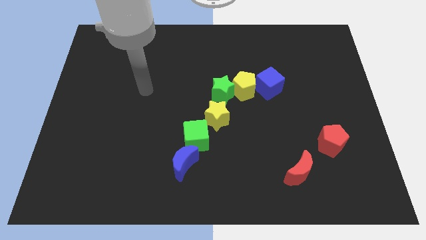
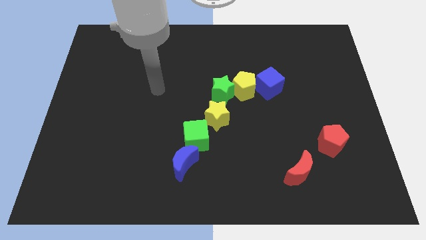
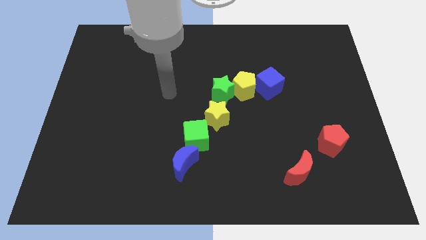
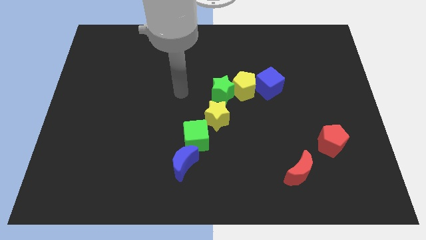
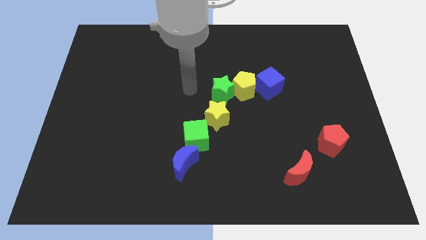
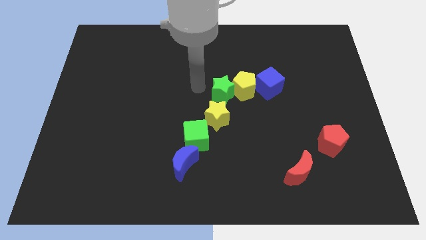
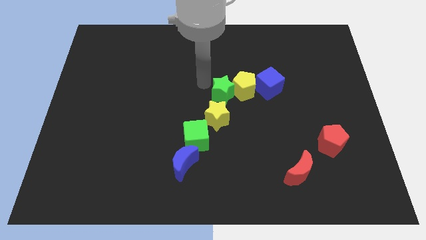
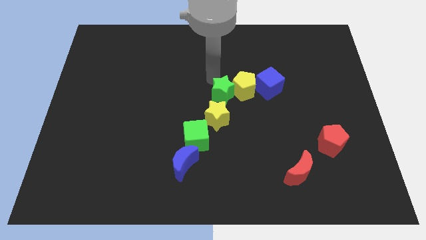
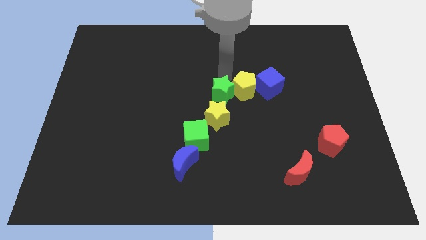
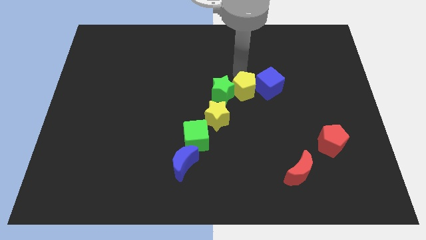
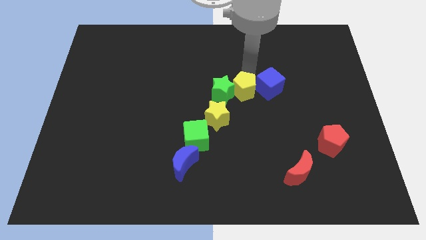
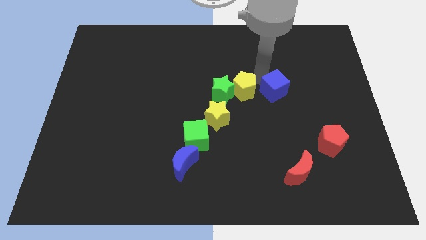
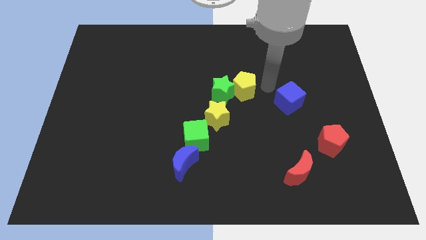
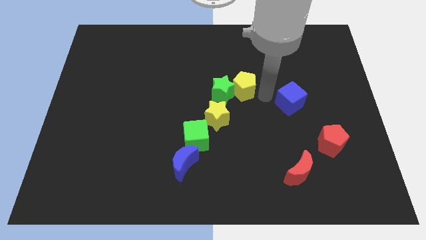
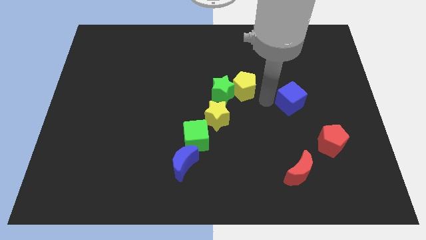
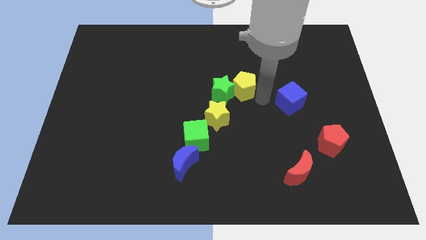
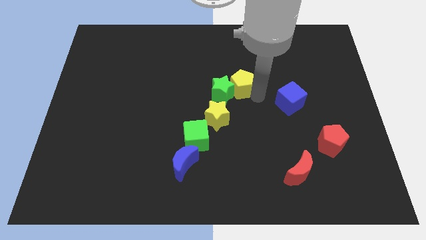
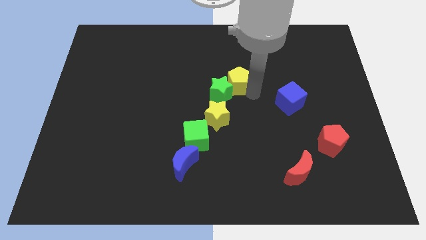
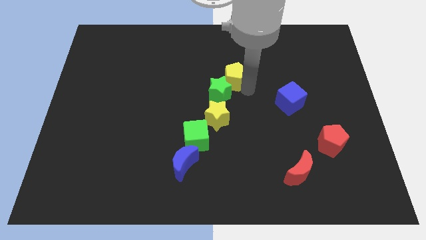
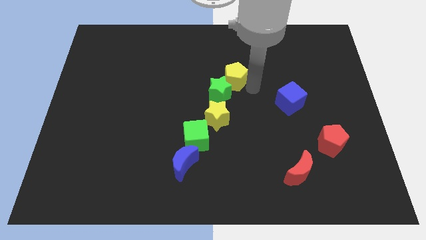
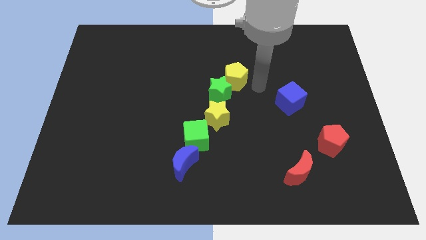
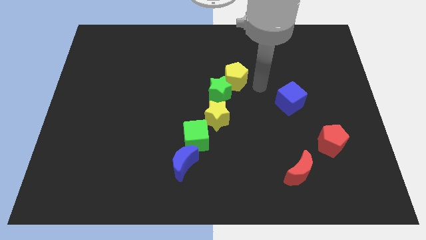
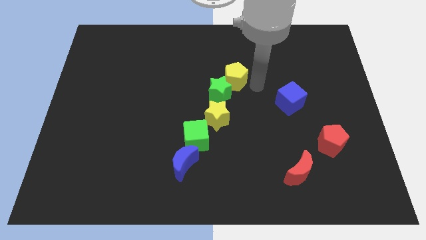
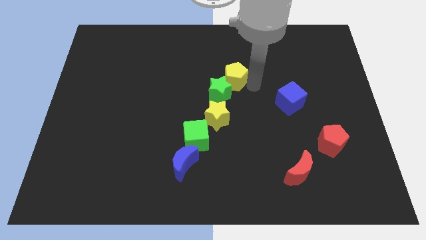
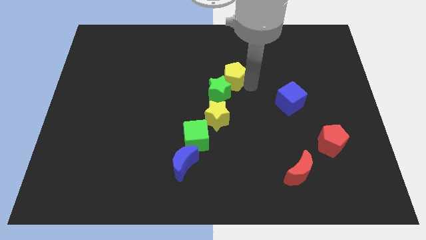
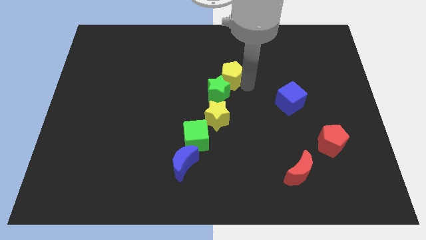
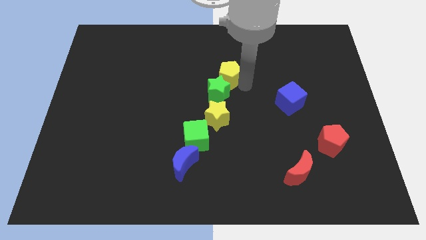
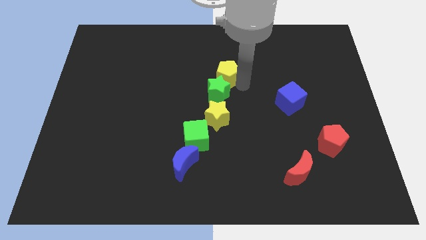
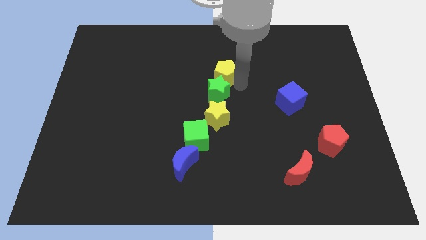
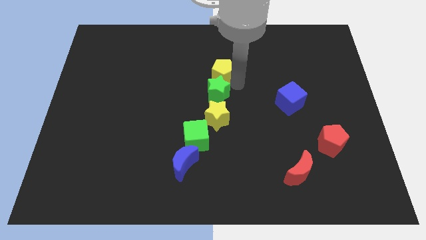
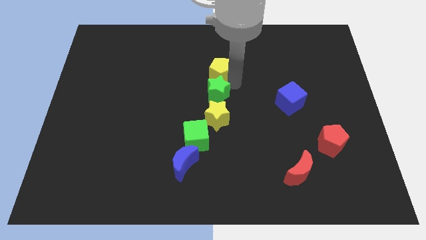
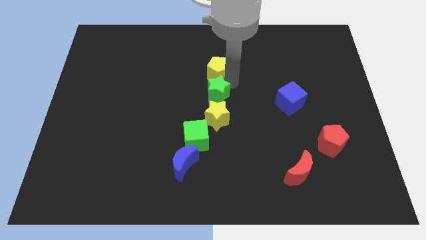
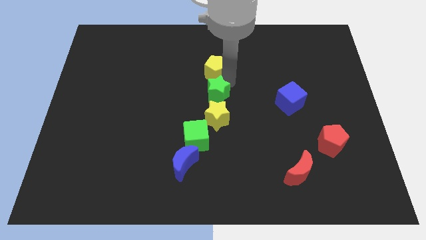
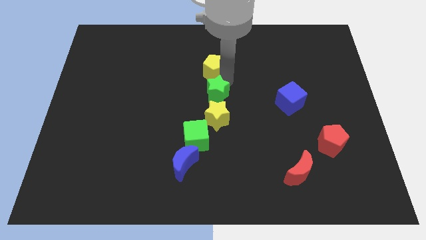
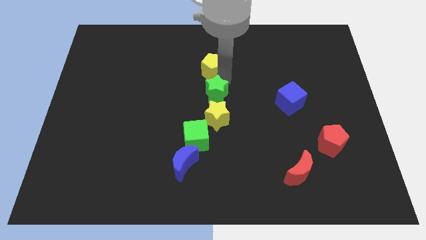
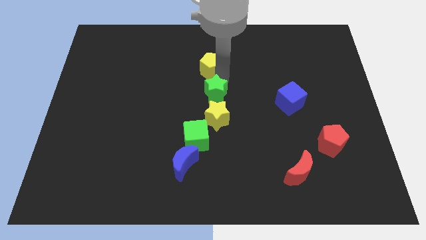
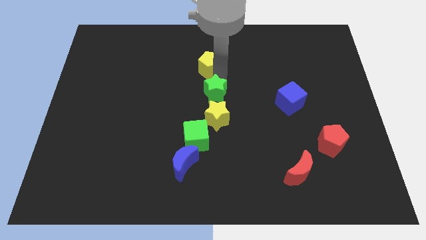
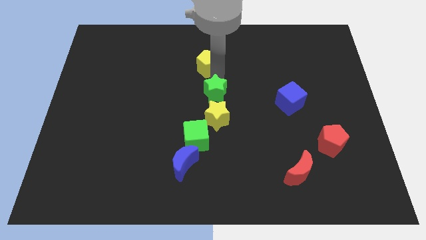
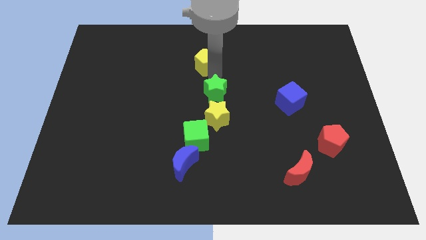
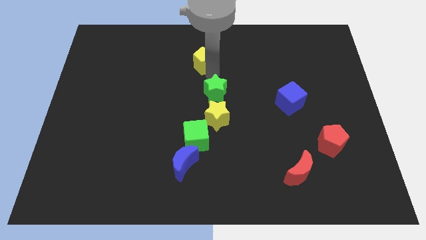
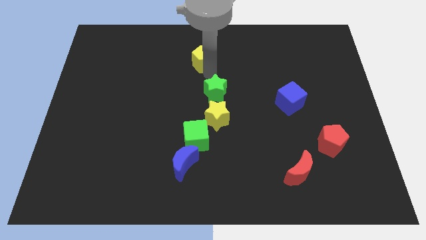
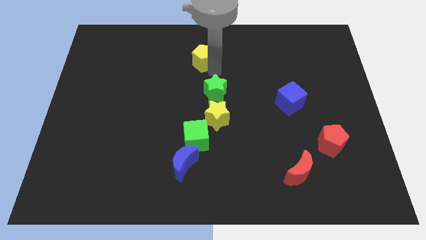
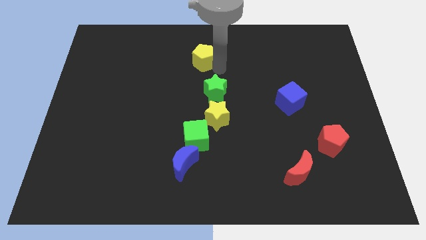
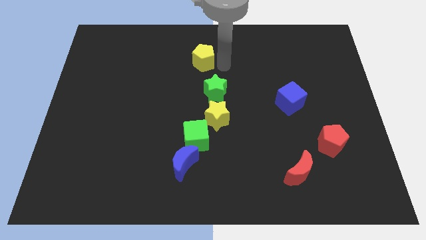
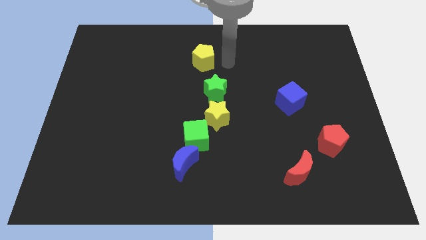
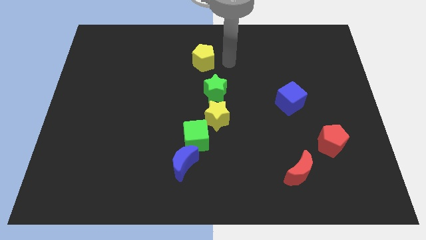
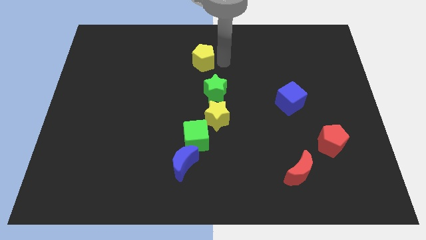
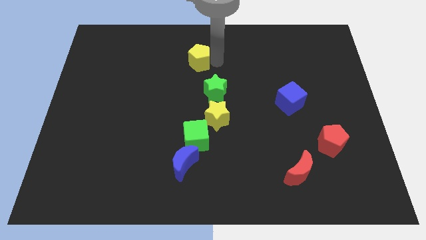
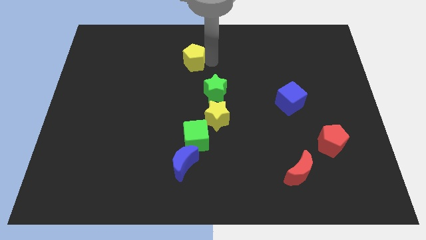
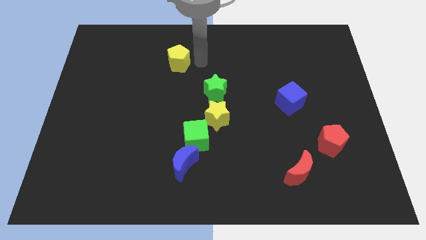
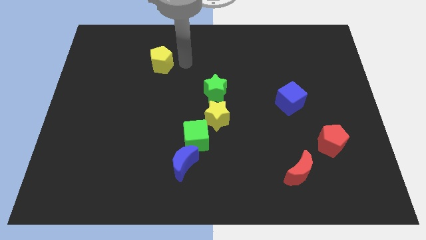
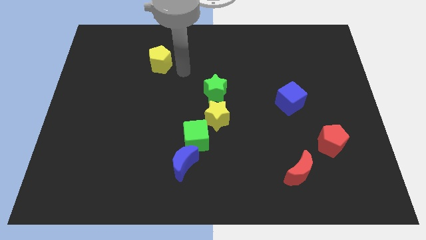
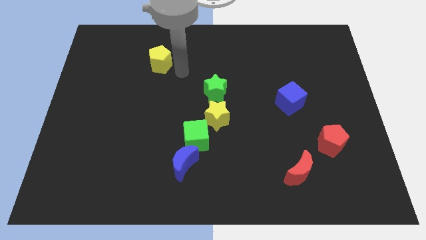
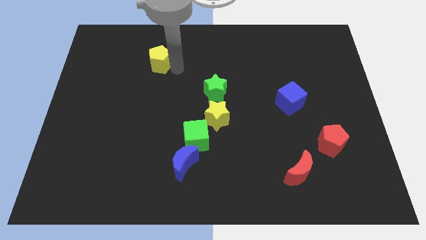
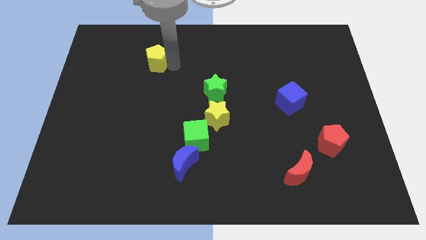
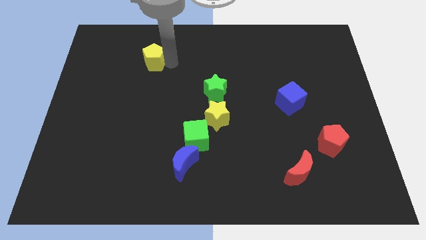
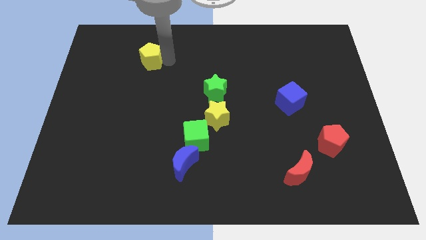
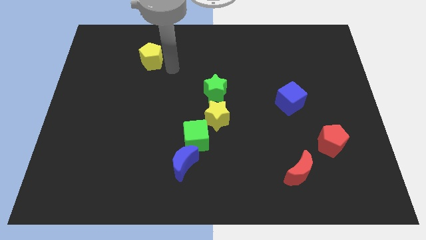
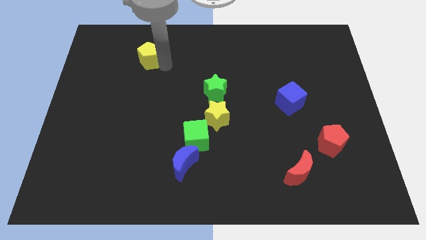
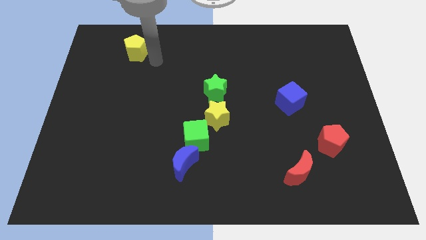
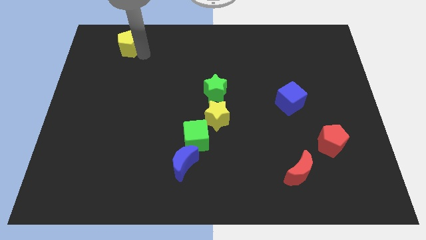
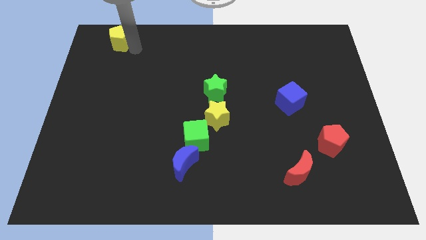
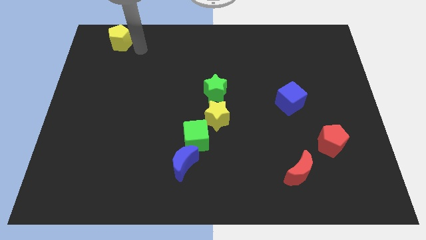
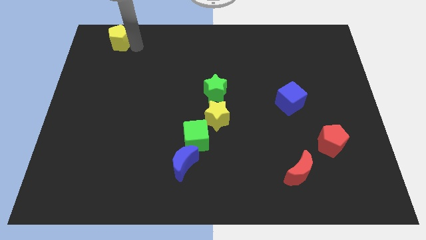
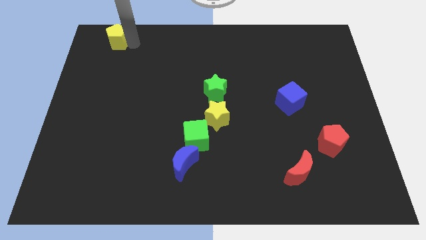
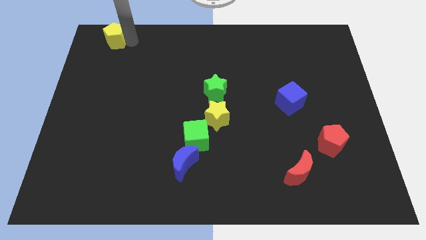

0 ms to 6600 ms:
push the yellow pentagon to the upper left corner
